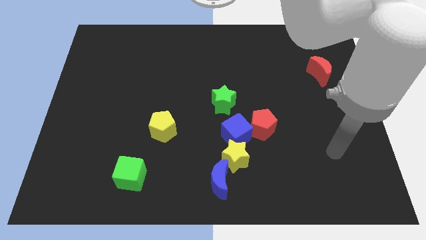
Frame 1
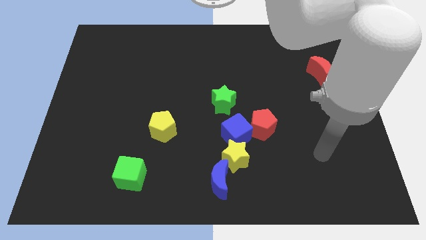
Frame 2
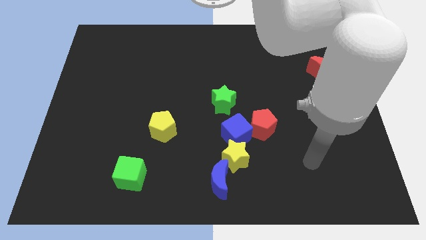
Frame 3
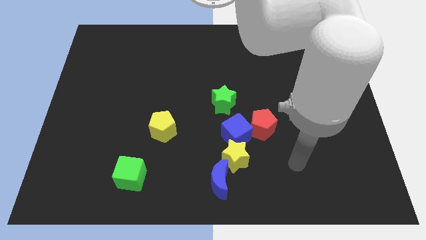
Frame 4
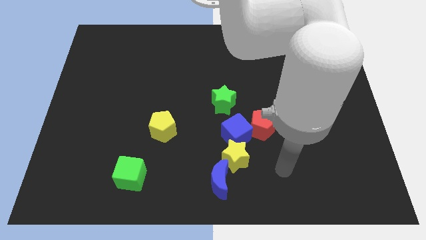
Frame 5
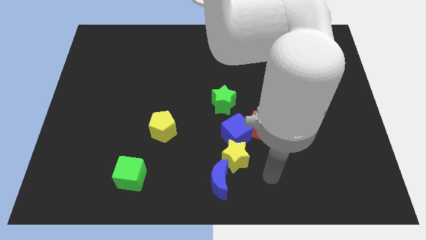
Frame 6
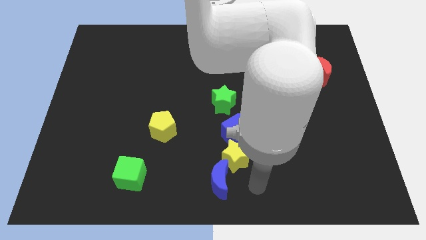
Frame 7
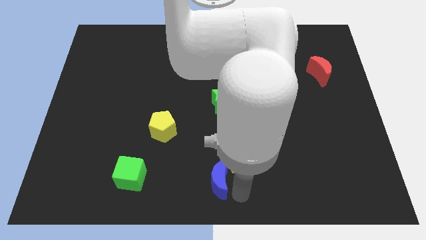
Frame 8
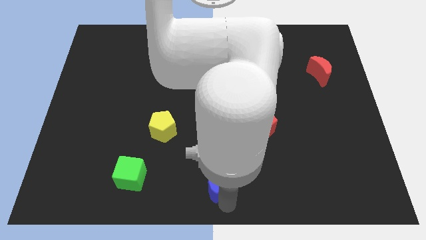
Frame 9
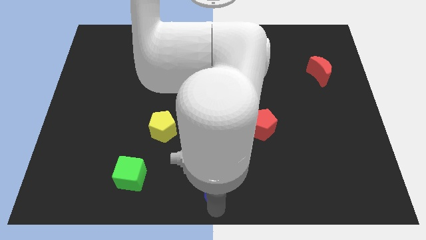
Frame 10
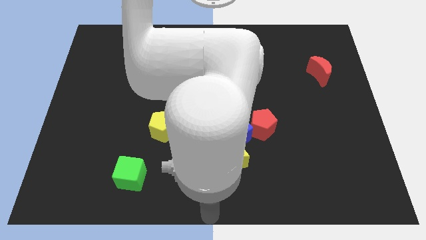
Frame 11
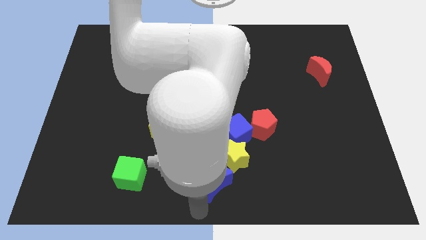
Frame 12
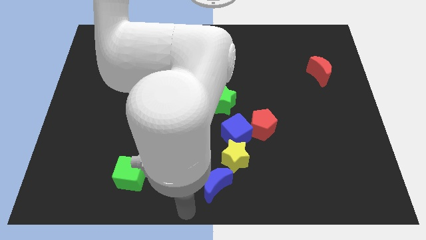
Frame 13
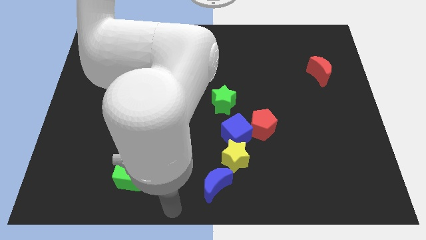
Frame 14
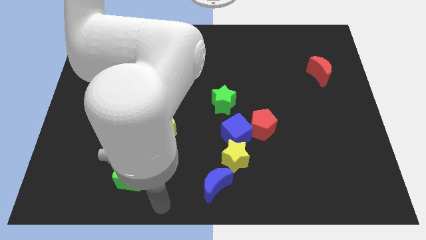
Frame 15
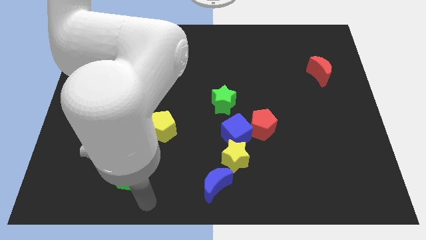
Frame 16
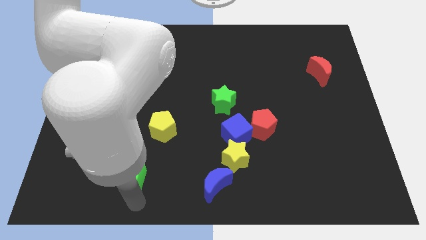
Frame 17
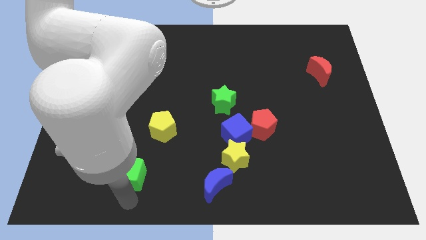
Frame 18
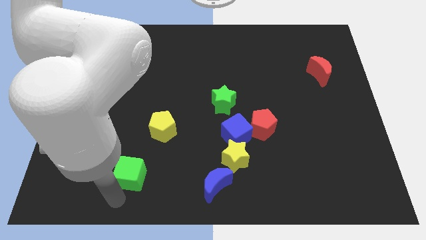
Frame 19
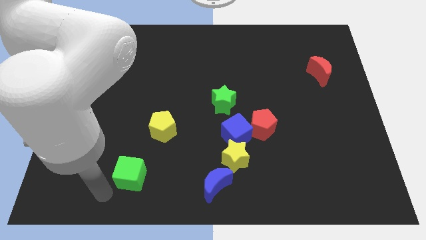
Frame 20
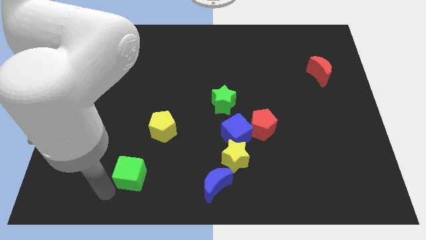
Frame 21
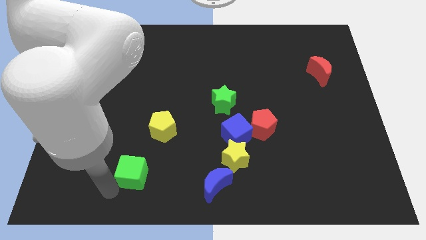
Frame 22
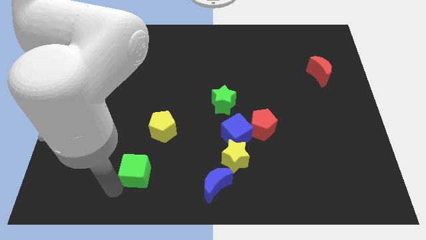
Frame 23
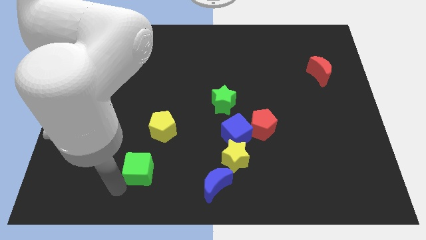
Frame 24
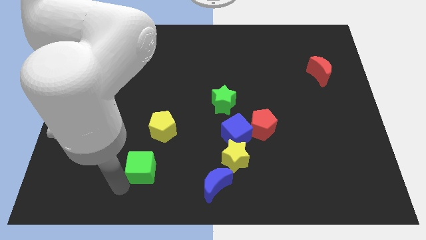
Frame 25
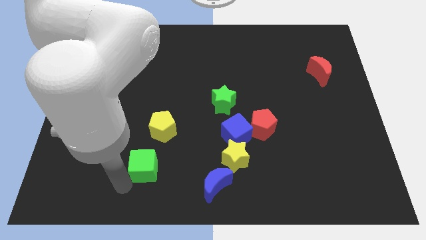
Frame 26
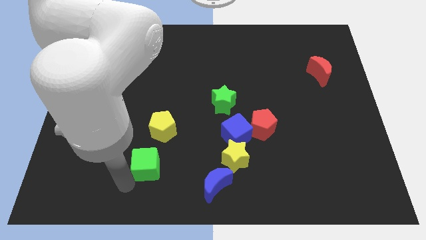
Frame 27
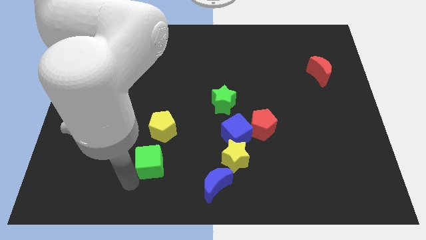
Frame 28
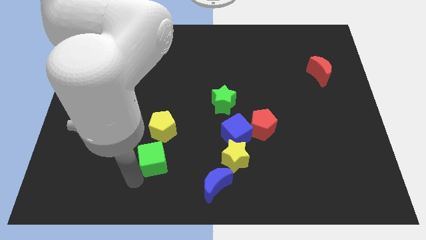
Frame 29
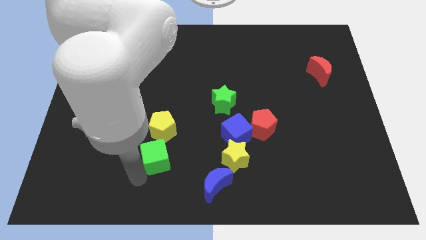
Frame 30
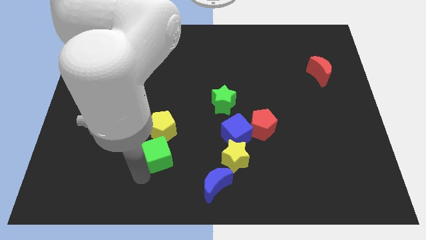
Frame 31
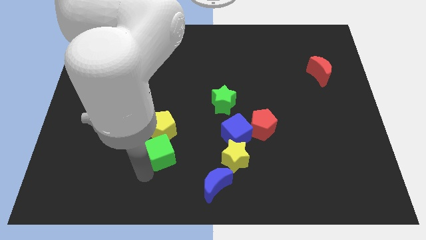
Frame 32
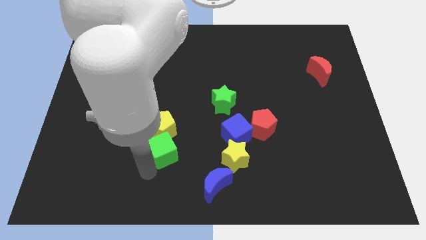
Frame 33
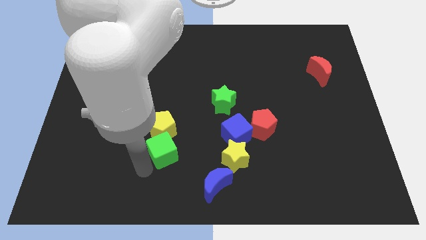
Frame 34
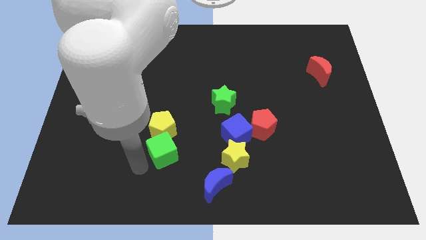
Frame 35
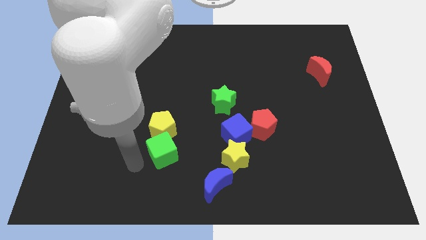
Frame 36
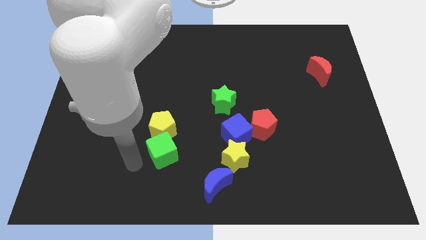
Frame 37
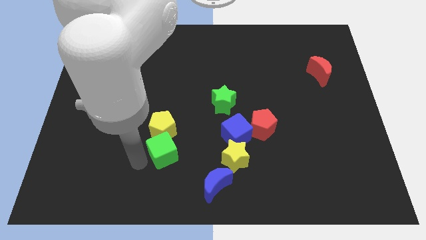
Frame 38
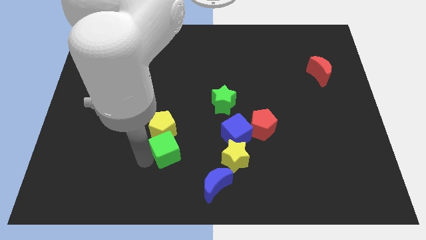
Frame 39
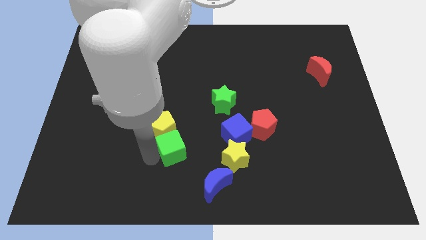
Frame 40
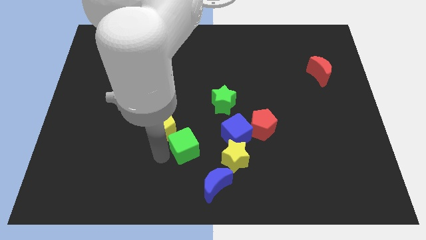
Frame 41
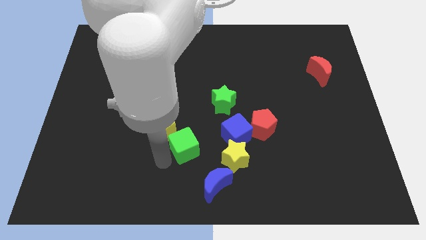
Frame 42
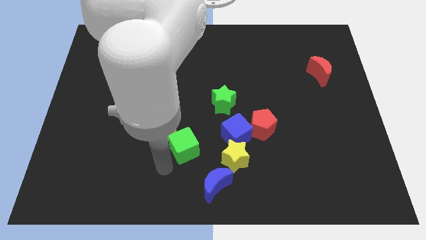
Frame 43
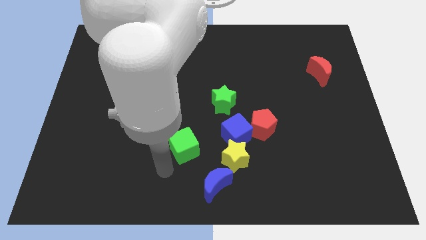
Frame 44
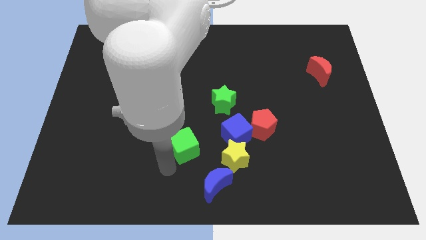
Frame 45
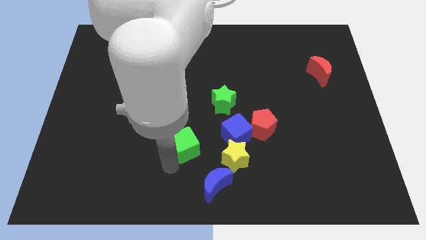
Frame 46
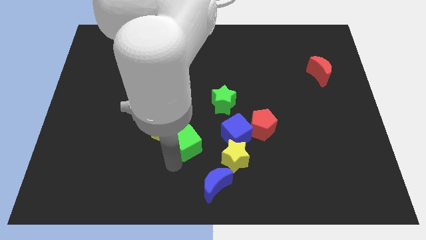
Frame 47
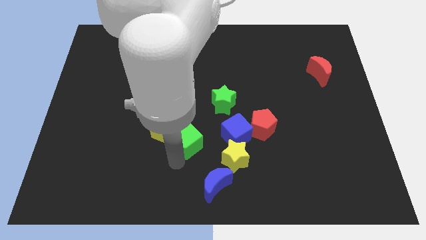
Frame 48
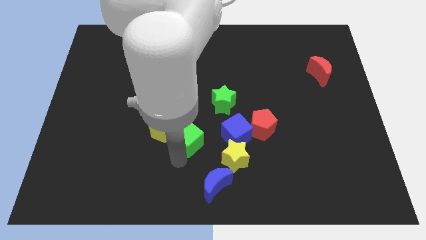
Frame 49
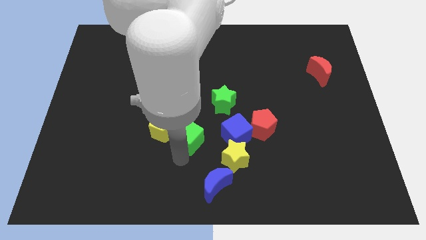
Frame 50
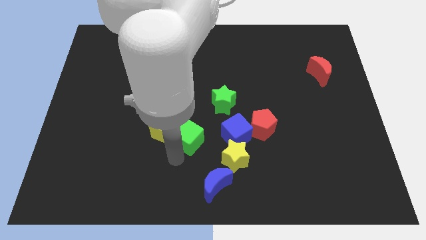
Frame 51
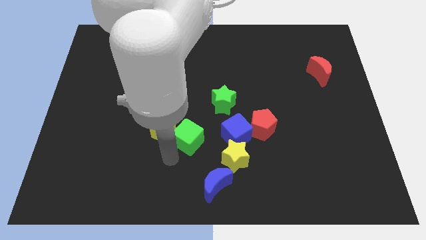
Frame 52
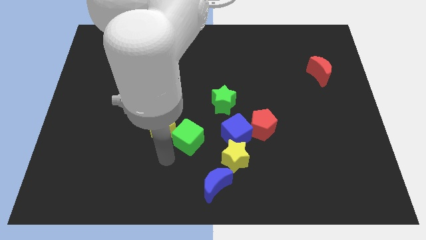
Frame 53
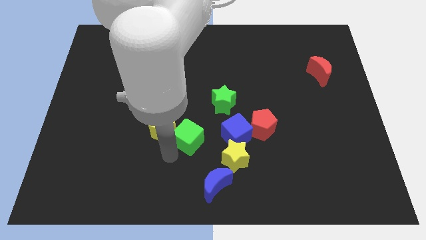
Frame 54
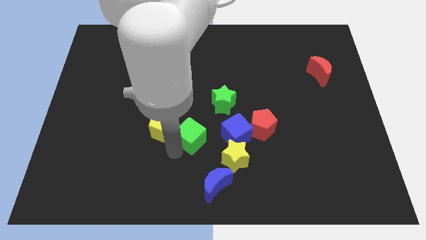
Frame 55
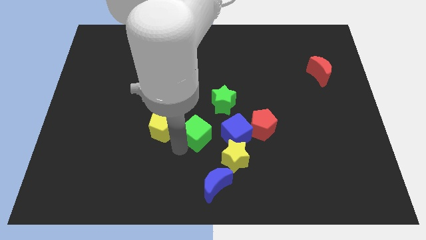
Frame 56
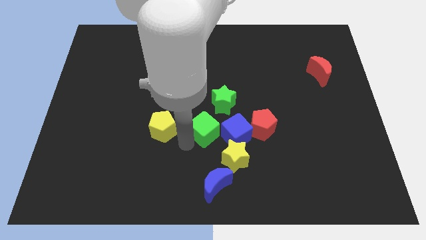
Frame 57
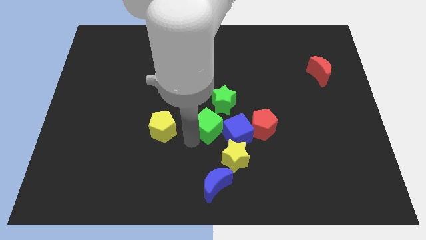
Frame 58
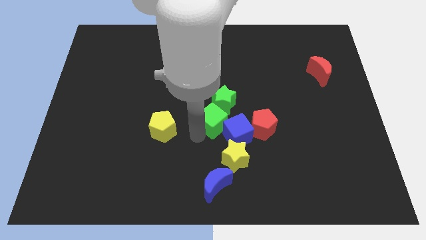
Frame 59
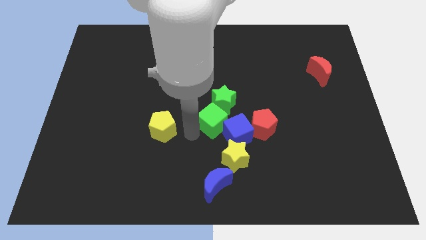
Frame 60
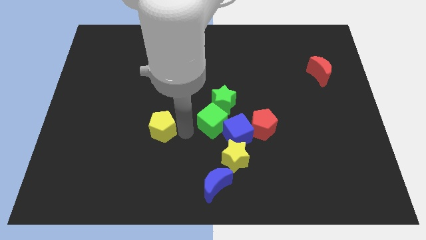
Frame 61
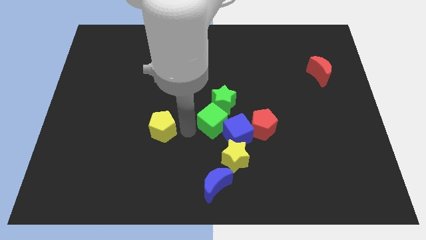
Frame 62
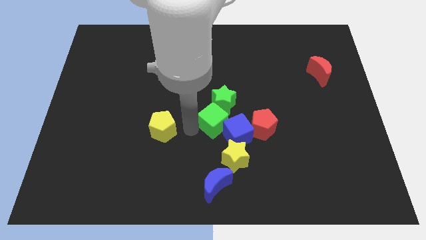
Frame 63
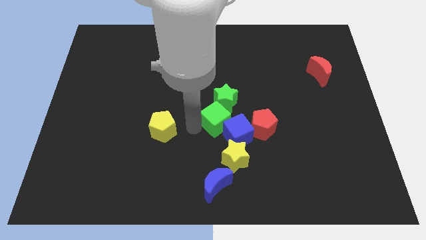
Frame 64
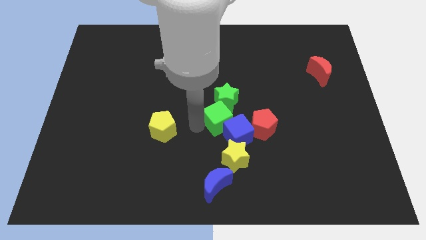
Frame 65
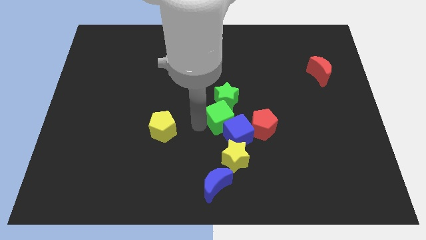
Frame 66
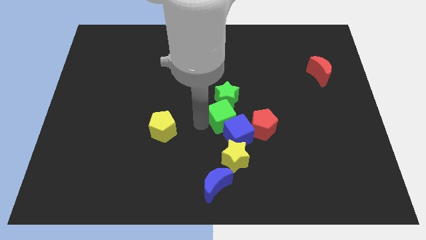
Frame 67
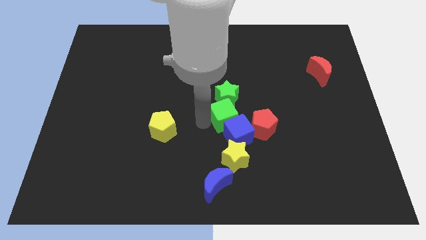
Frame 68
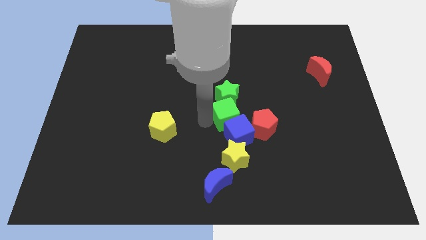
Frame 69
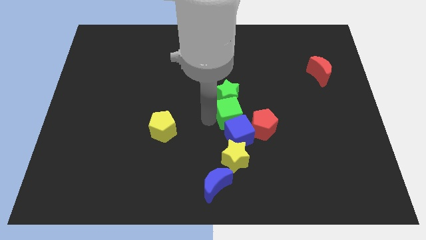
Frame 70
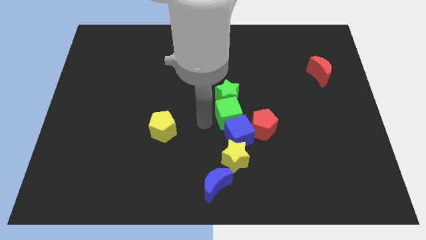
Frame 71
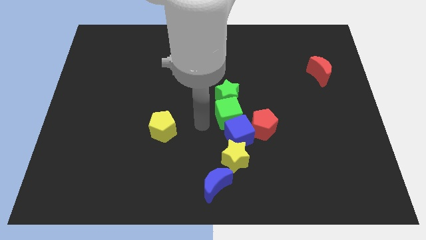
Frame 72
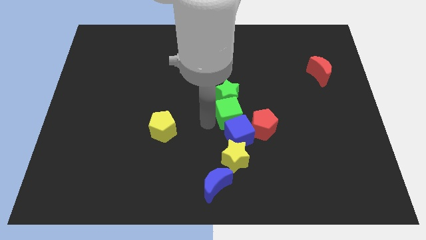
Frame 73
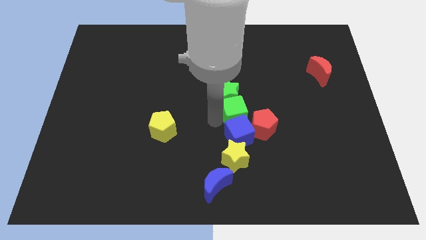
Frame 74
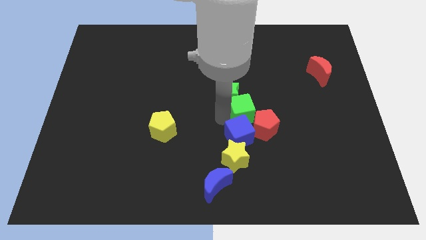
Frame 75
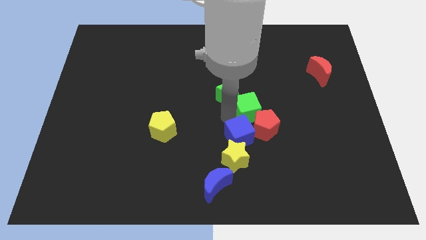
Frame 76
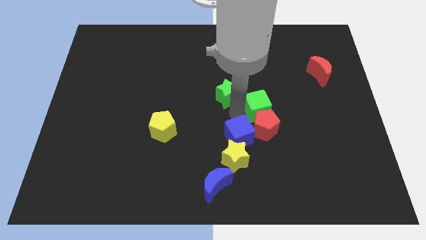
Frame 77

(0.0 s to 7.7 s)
slide the green cube diagonally up and to the right of the red pentagon
